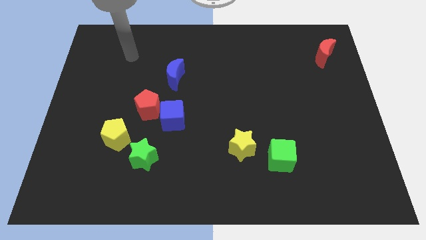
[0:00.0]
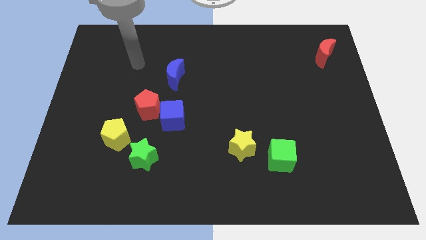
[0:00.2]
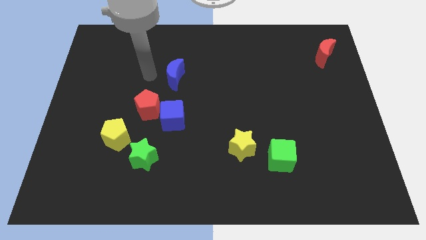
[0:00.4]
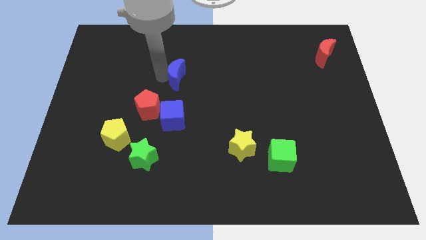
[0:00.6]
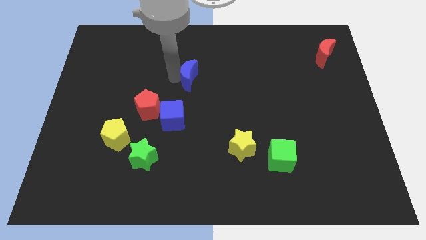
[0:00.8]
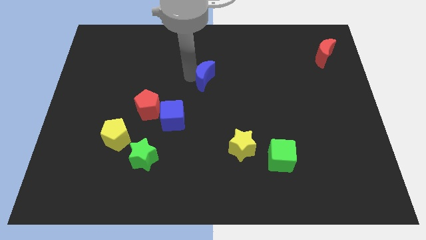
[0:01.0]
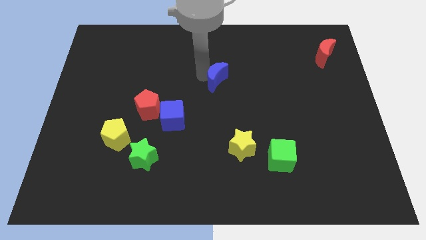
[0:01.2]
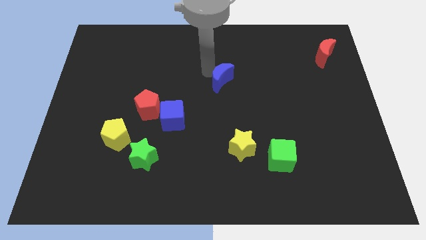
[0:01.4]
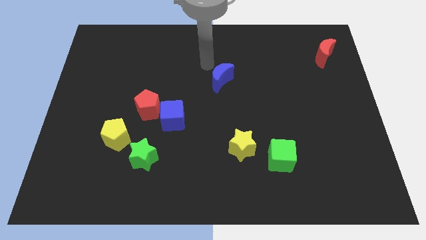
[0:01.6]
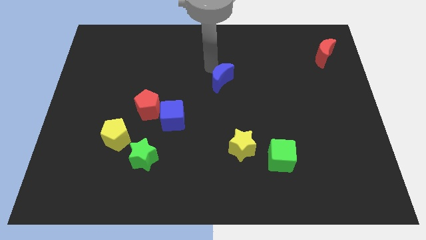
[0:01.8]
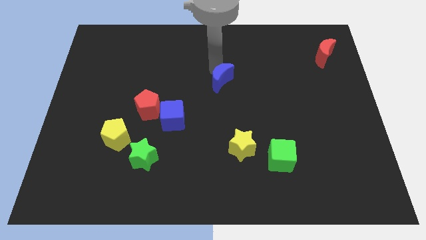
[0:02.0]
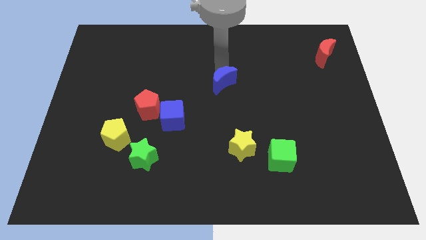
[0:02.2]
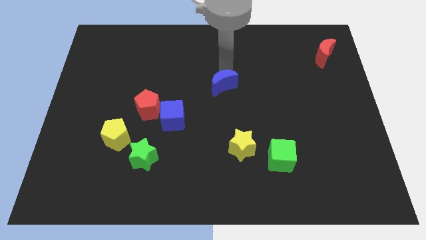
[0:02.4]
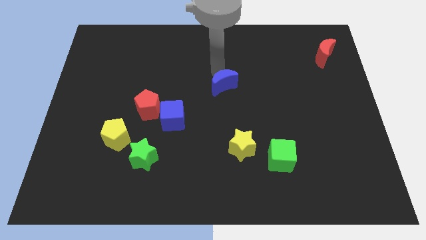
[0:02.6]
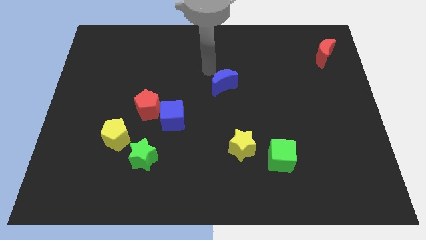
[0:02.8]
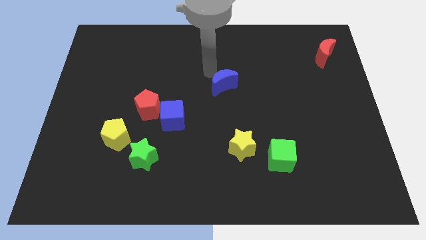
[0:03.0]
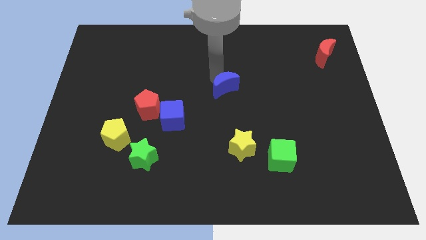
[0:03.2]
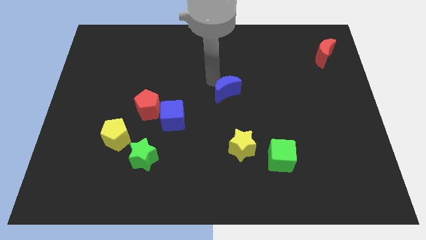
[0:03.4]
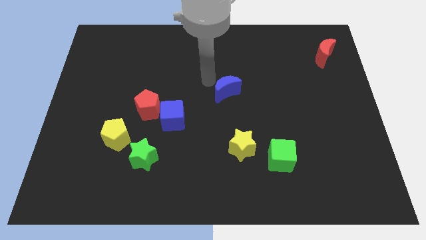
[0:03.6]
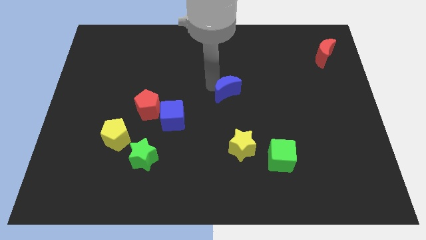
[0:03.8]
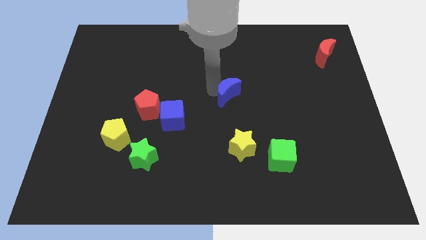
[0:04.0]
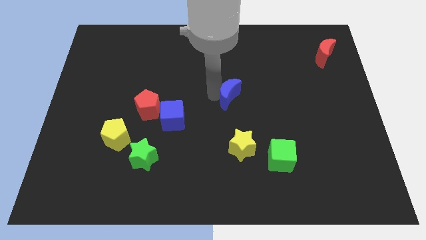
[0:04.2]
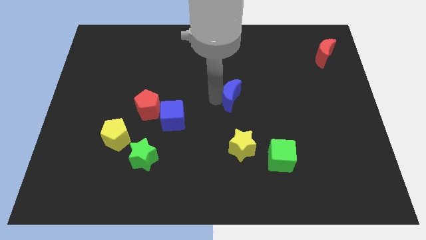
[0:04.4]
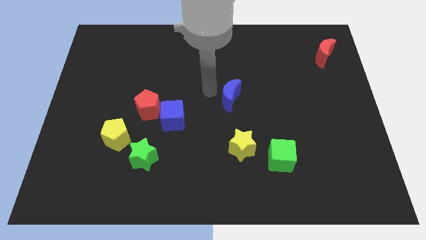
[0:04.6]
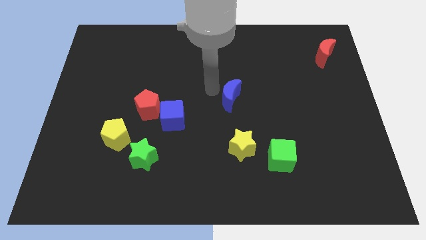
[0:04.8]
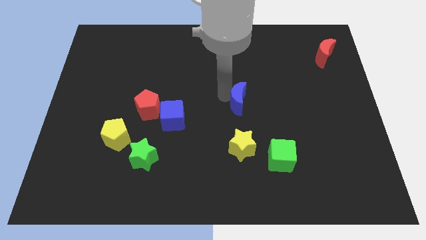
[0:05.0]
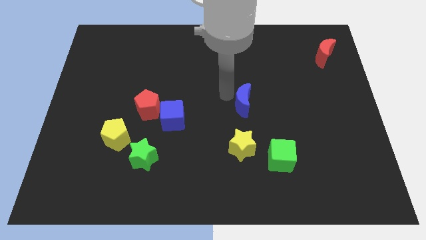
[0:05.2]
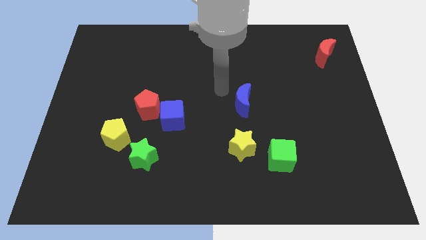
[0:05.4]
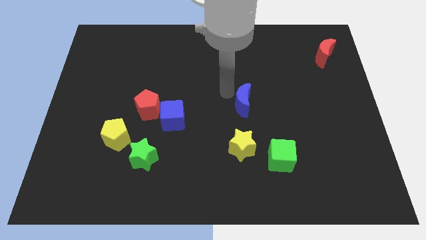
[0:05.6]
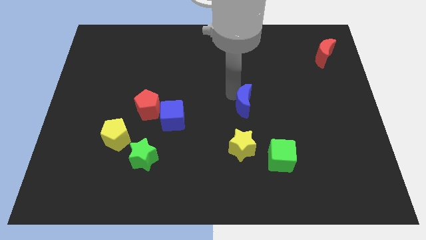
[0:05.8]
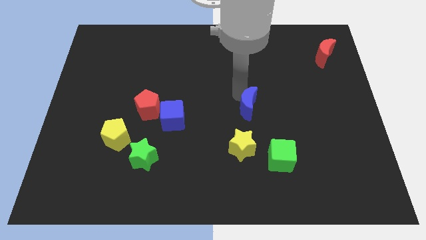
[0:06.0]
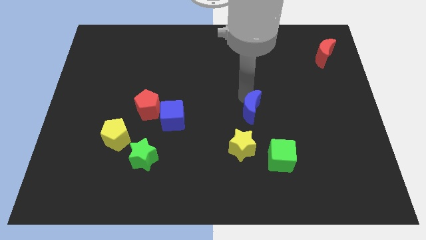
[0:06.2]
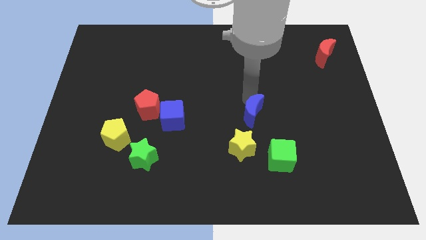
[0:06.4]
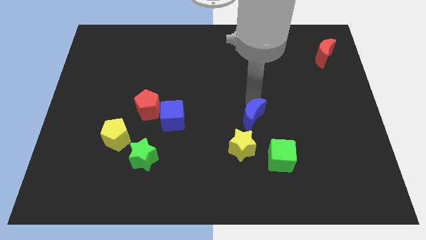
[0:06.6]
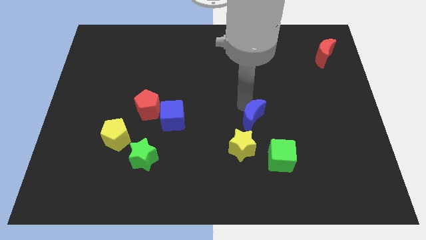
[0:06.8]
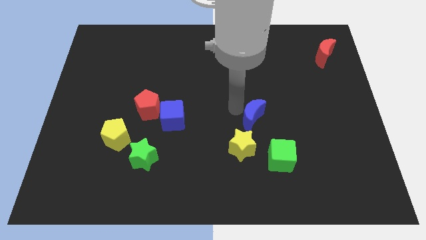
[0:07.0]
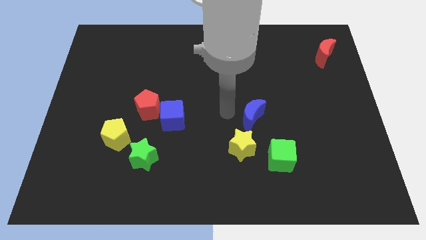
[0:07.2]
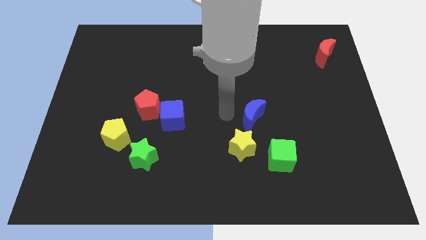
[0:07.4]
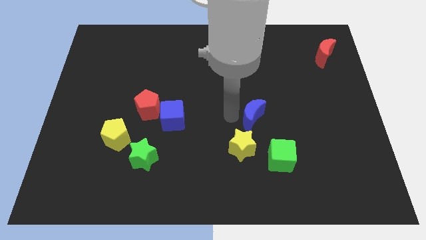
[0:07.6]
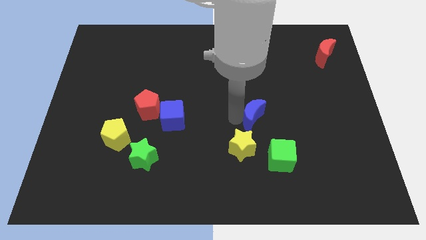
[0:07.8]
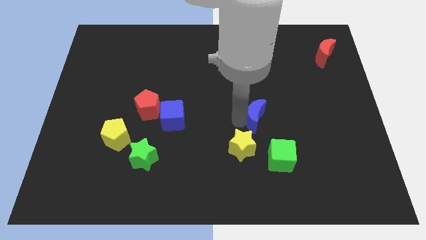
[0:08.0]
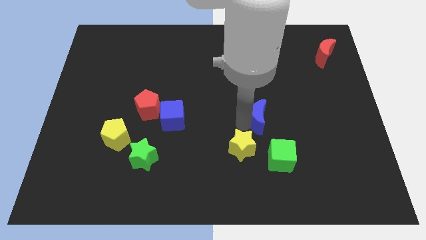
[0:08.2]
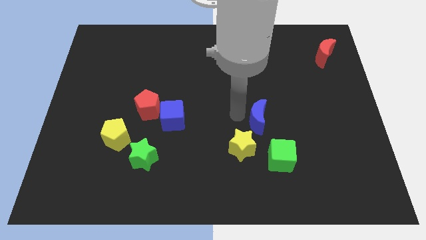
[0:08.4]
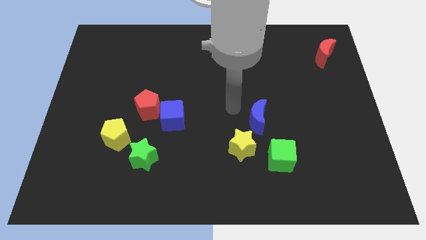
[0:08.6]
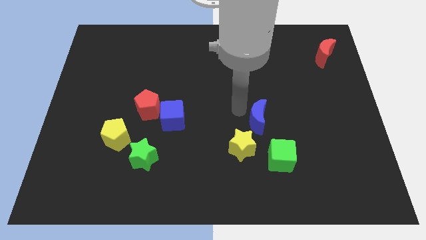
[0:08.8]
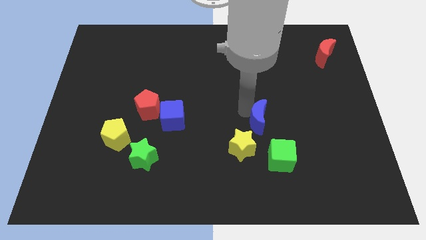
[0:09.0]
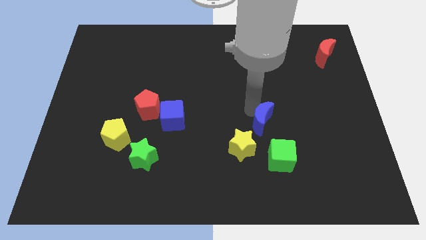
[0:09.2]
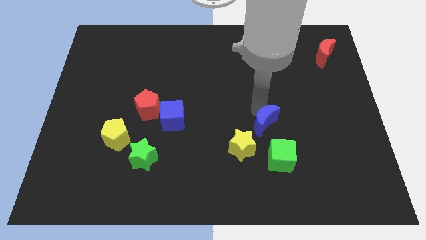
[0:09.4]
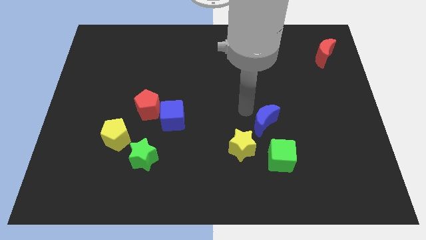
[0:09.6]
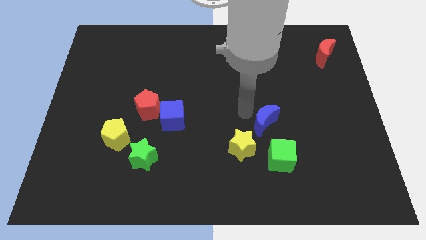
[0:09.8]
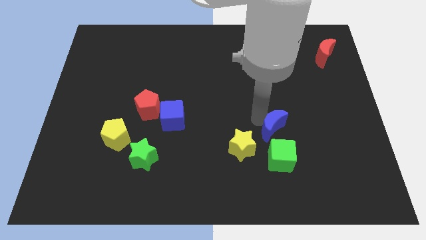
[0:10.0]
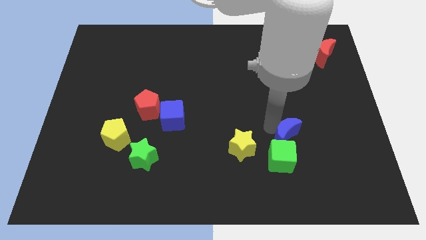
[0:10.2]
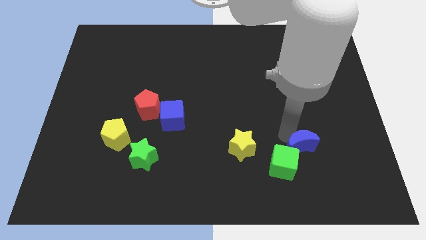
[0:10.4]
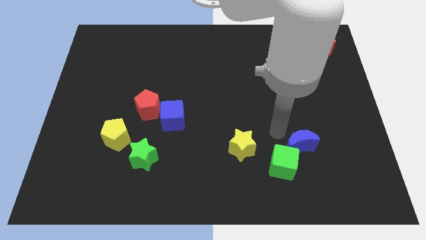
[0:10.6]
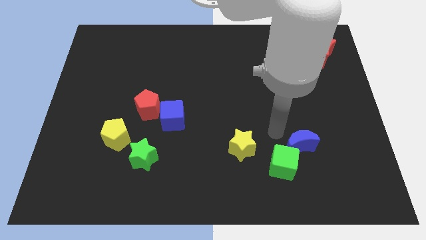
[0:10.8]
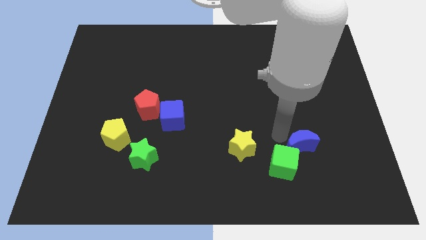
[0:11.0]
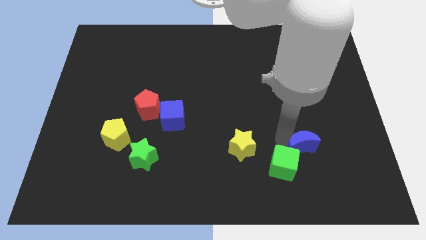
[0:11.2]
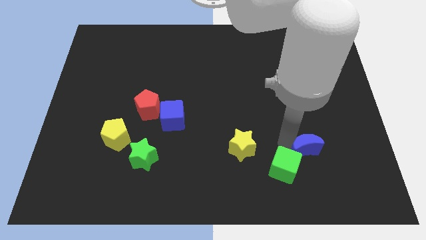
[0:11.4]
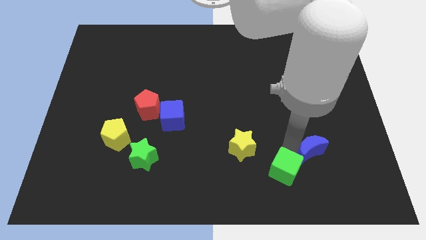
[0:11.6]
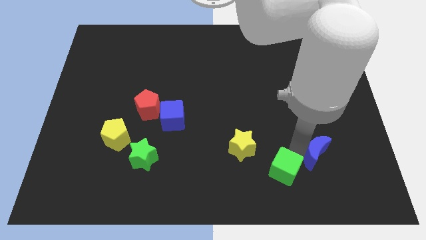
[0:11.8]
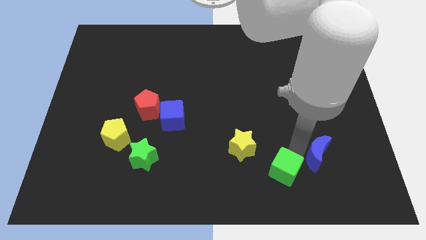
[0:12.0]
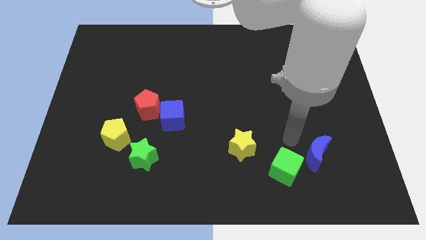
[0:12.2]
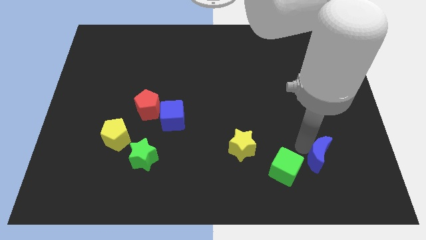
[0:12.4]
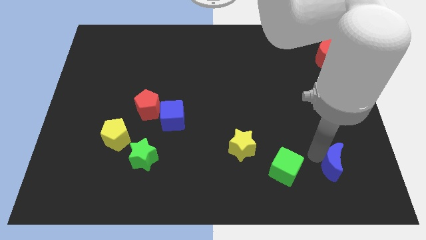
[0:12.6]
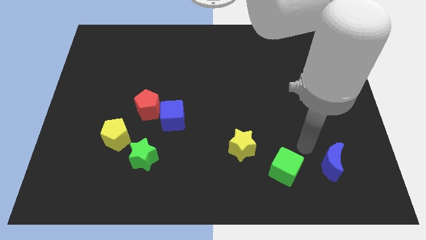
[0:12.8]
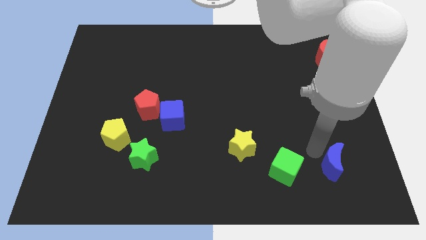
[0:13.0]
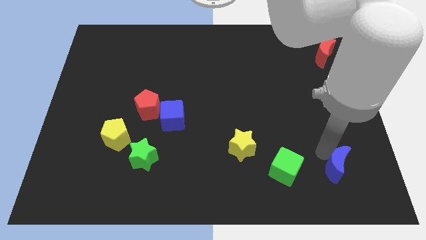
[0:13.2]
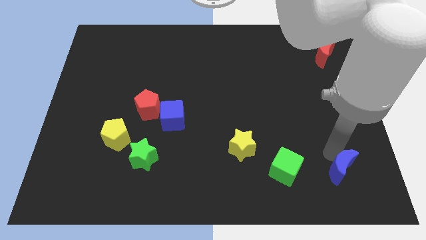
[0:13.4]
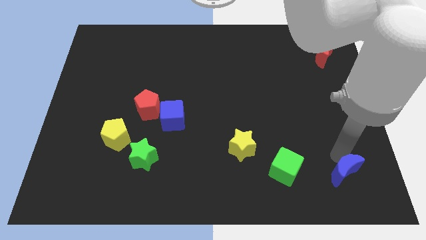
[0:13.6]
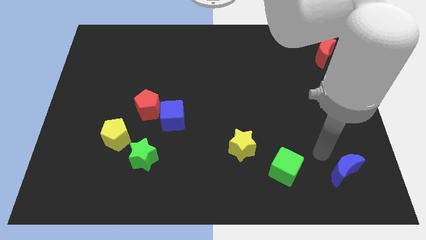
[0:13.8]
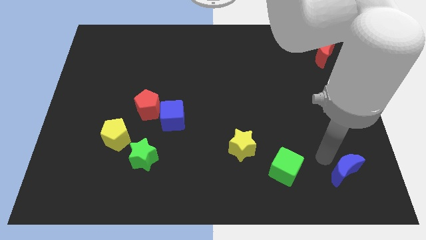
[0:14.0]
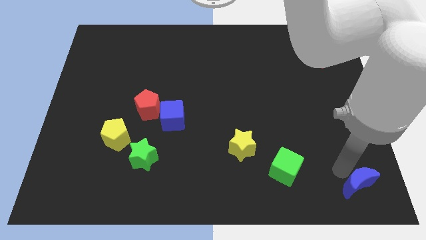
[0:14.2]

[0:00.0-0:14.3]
slide the blue moon to the bottom right of the board
